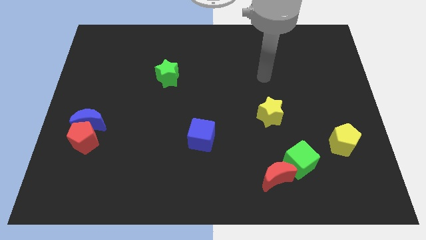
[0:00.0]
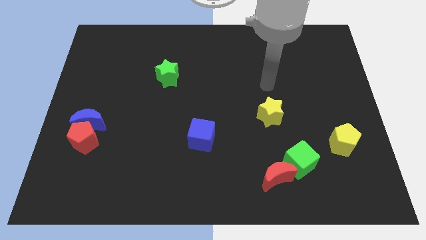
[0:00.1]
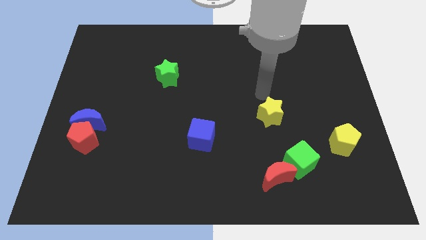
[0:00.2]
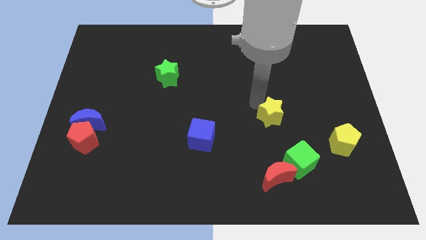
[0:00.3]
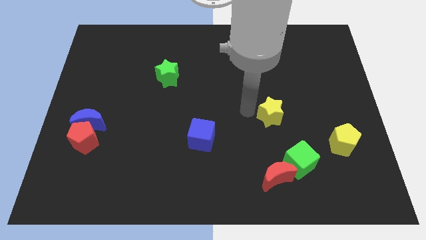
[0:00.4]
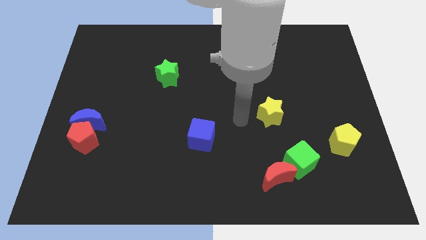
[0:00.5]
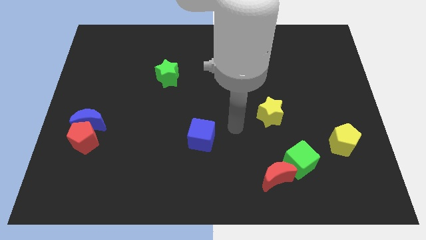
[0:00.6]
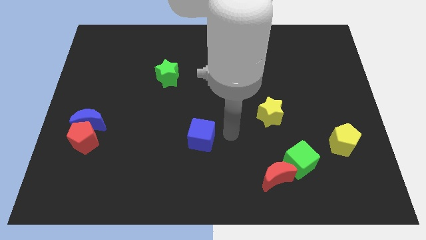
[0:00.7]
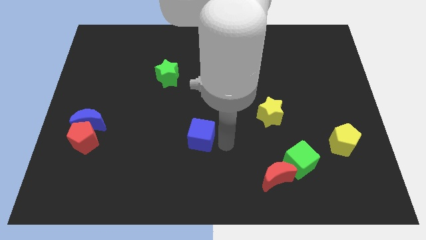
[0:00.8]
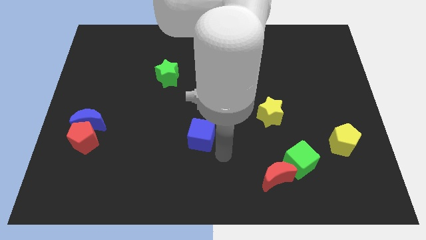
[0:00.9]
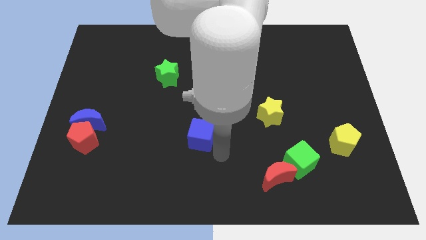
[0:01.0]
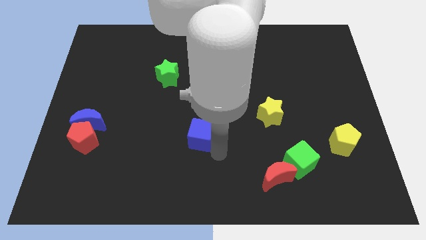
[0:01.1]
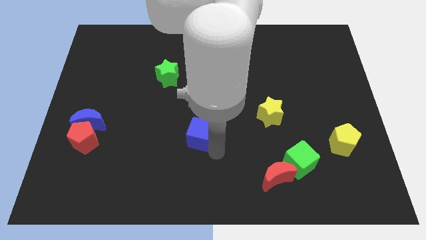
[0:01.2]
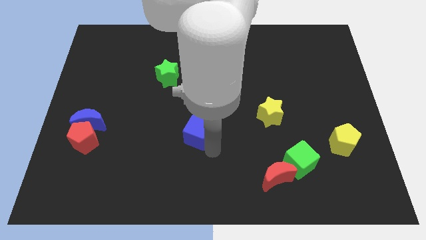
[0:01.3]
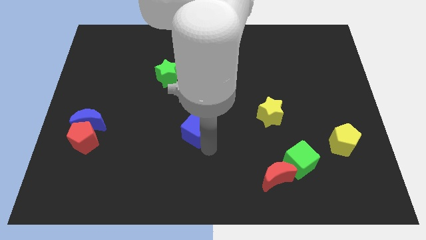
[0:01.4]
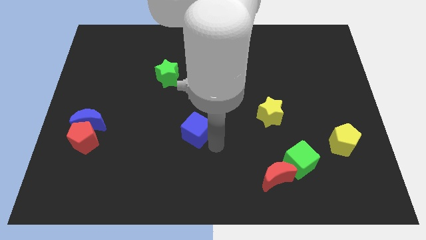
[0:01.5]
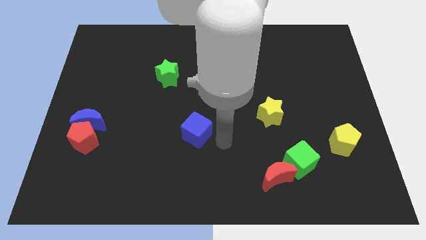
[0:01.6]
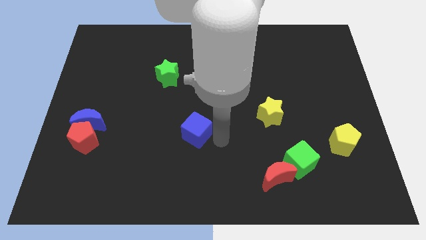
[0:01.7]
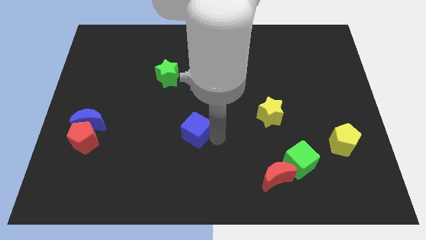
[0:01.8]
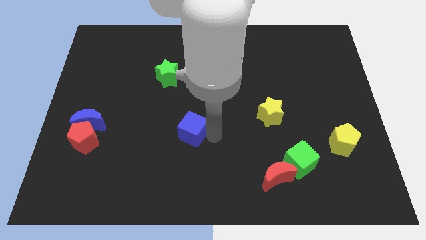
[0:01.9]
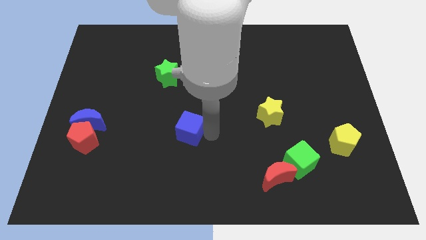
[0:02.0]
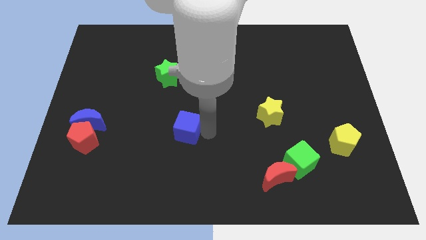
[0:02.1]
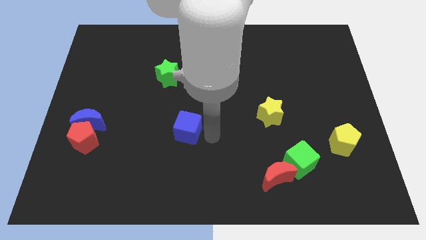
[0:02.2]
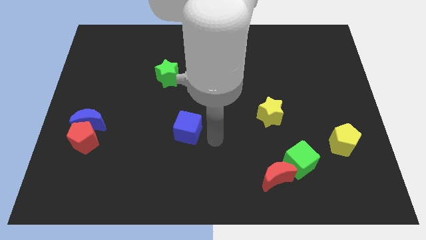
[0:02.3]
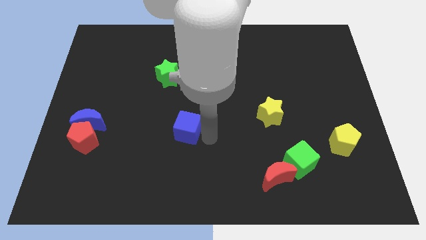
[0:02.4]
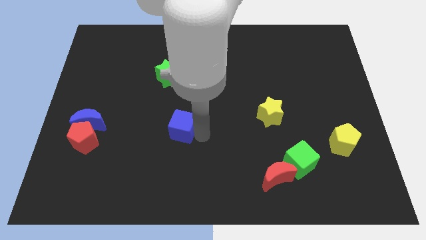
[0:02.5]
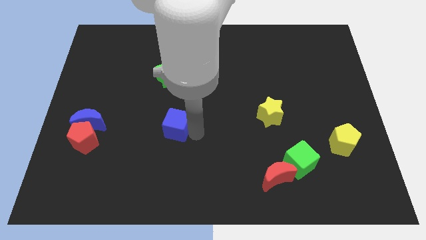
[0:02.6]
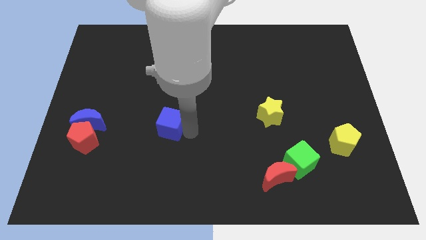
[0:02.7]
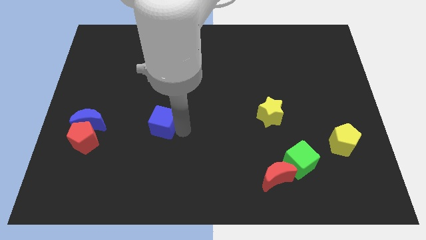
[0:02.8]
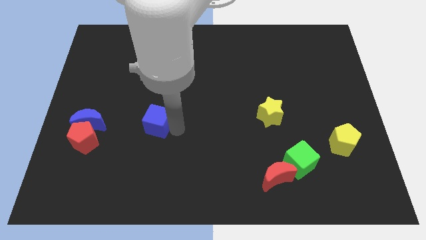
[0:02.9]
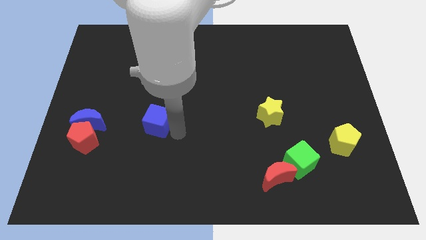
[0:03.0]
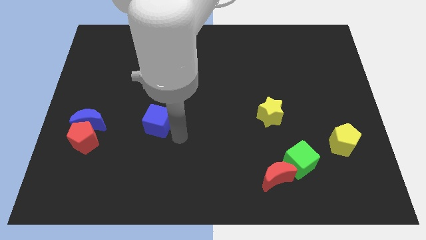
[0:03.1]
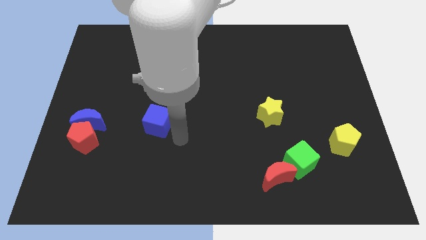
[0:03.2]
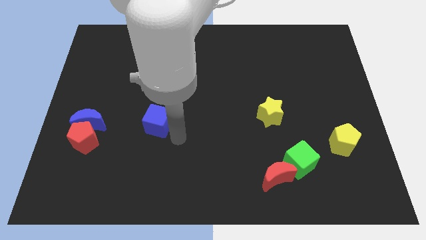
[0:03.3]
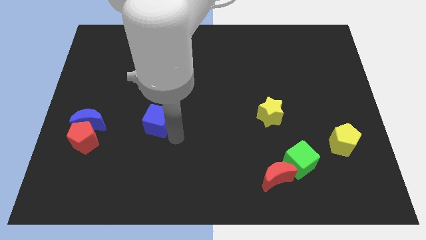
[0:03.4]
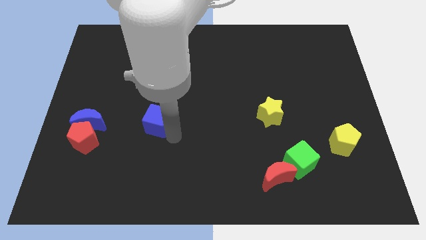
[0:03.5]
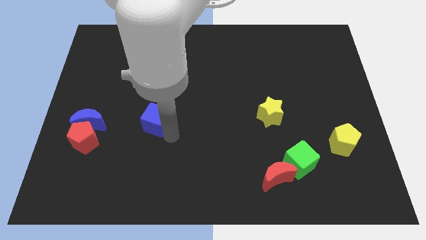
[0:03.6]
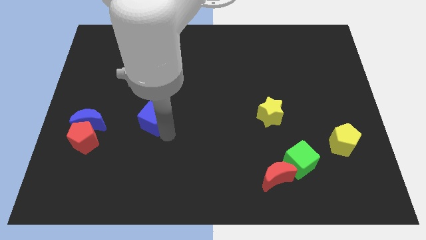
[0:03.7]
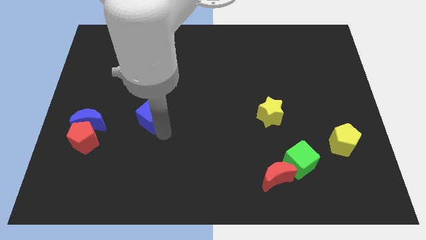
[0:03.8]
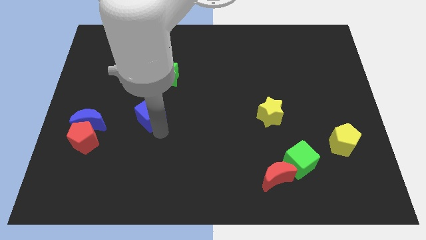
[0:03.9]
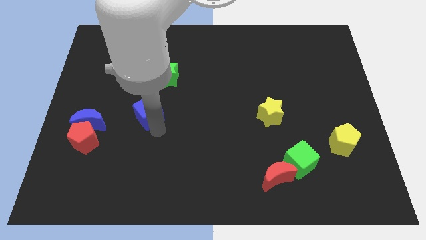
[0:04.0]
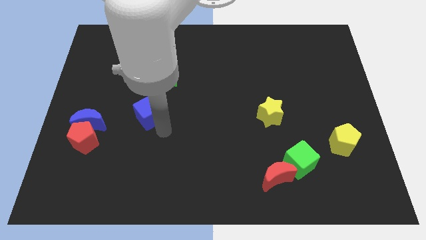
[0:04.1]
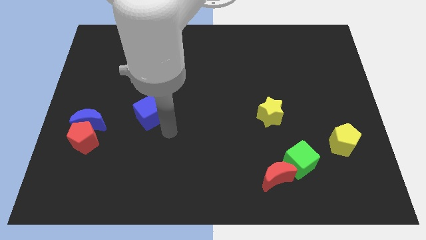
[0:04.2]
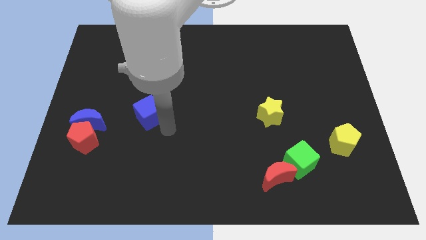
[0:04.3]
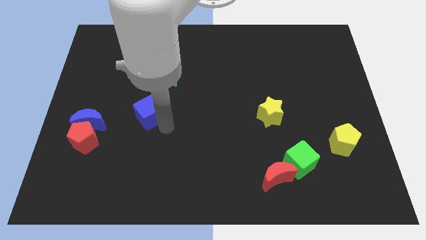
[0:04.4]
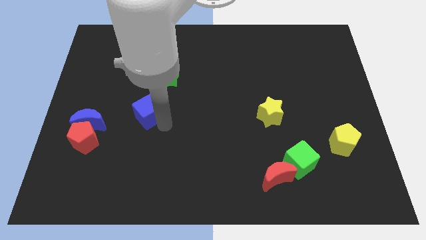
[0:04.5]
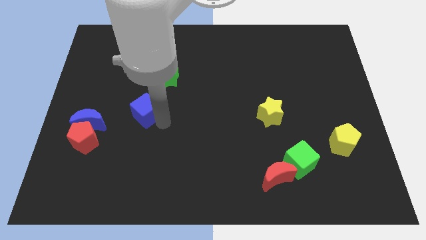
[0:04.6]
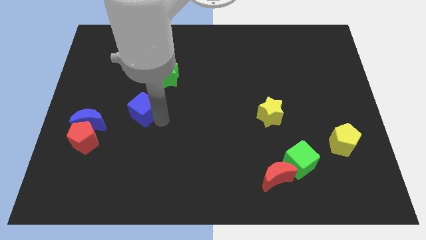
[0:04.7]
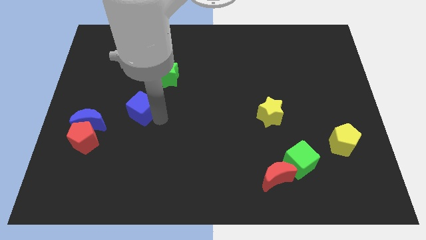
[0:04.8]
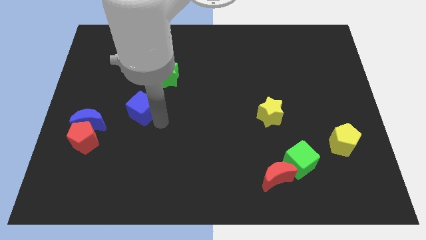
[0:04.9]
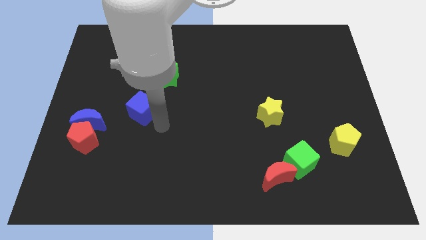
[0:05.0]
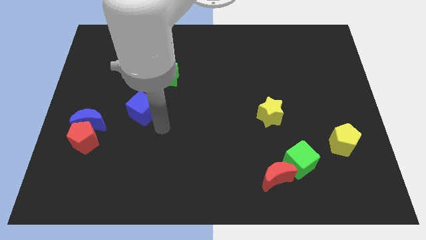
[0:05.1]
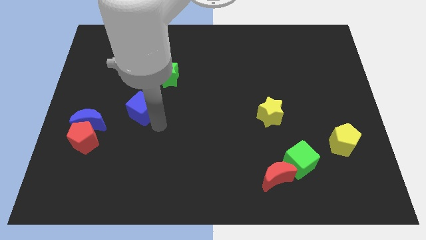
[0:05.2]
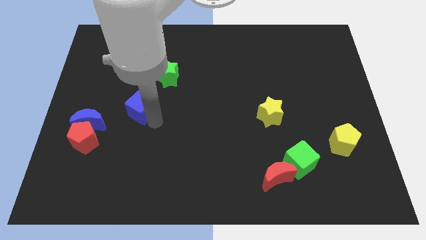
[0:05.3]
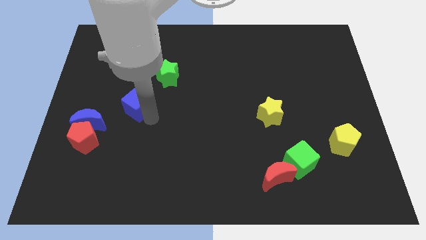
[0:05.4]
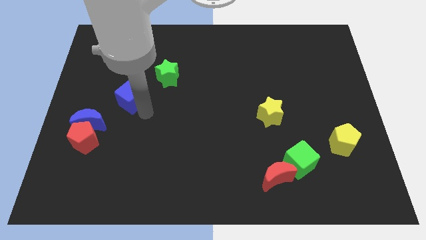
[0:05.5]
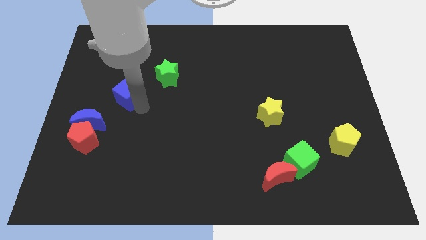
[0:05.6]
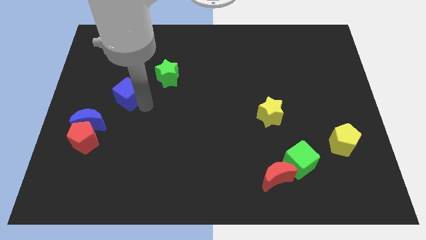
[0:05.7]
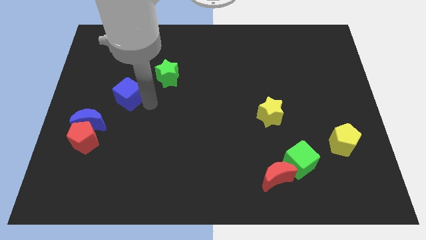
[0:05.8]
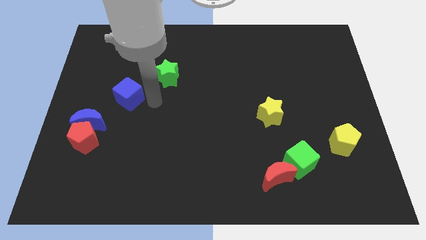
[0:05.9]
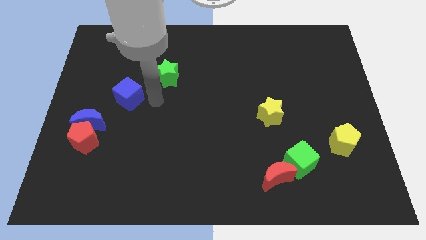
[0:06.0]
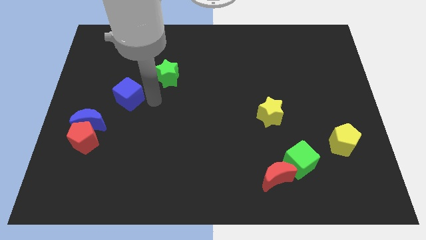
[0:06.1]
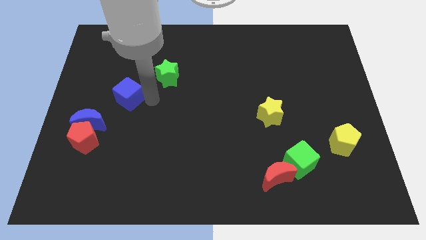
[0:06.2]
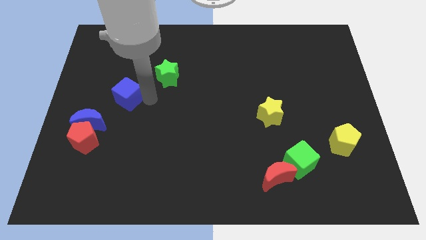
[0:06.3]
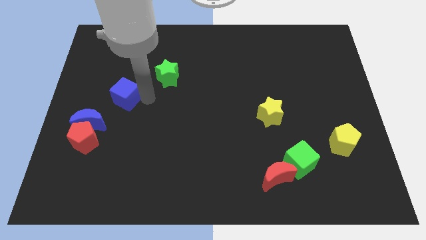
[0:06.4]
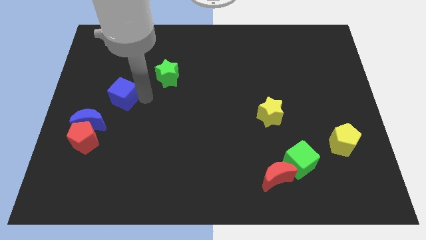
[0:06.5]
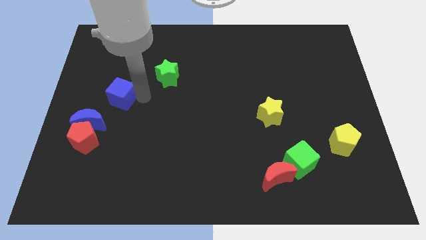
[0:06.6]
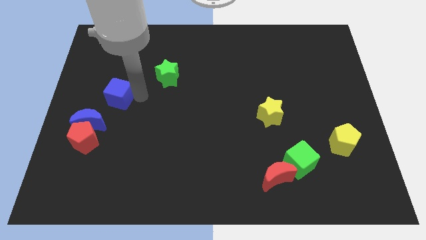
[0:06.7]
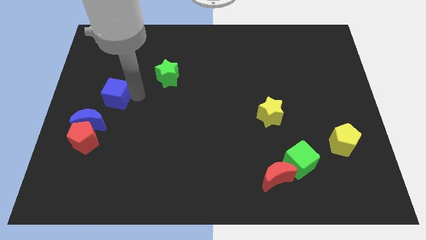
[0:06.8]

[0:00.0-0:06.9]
move the blue cube to the top of the blue moon

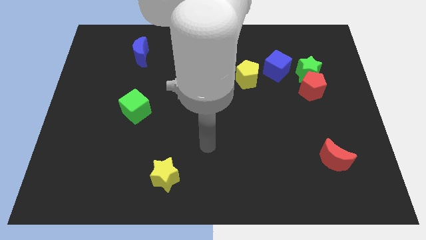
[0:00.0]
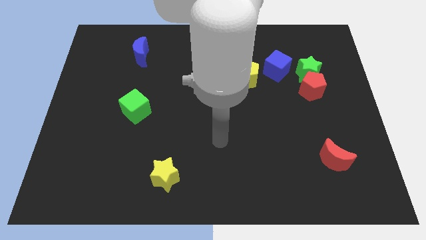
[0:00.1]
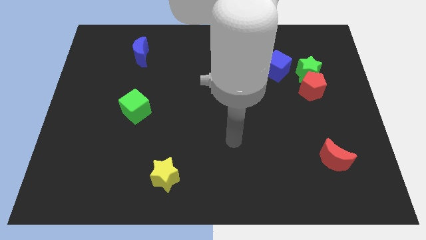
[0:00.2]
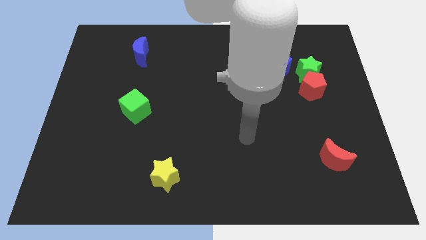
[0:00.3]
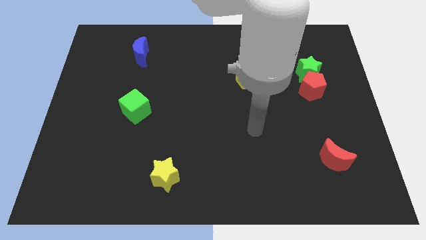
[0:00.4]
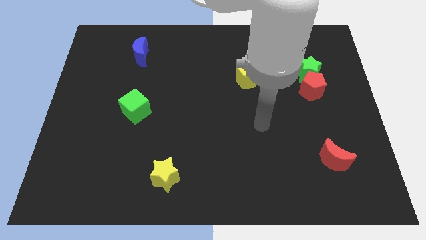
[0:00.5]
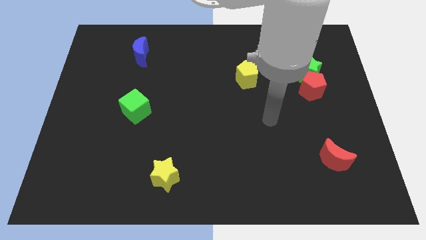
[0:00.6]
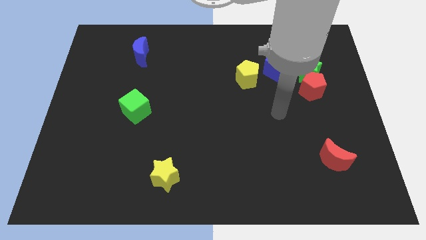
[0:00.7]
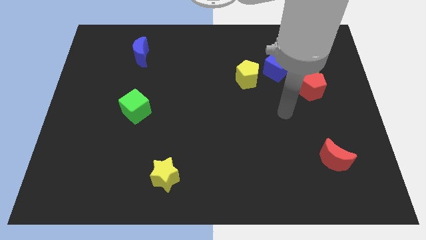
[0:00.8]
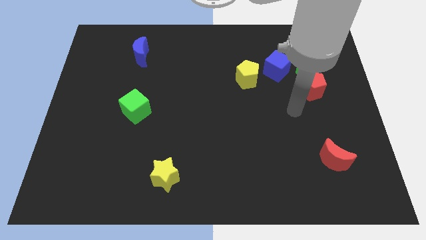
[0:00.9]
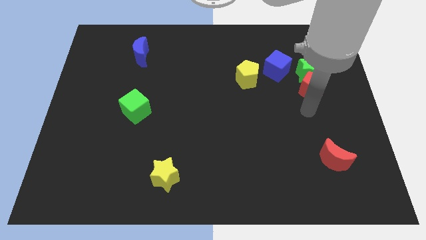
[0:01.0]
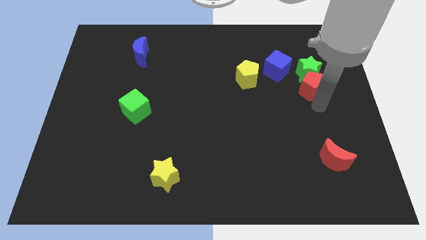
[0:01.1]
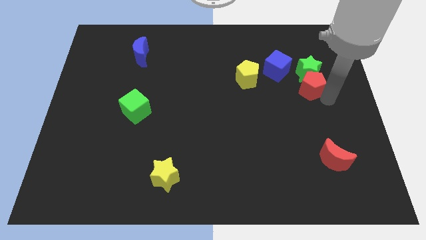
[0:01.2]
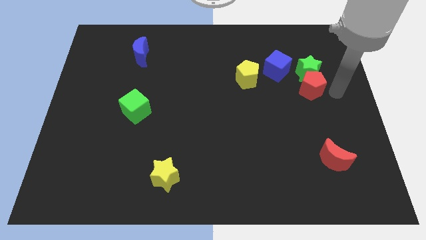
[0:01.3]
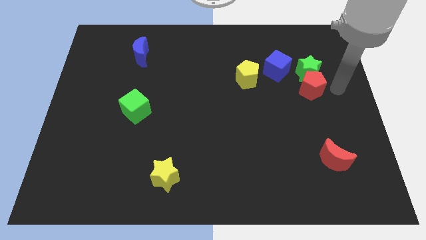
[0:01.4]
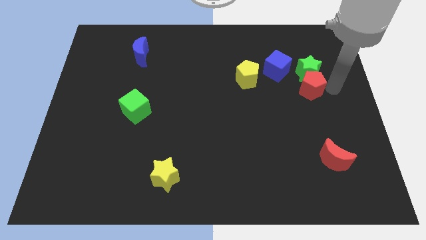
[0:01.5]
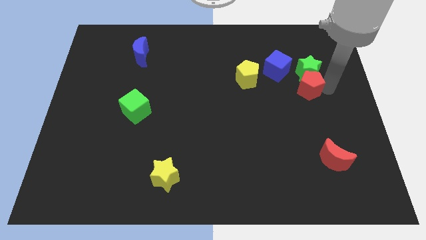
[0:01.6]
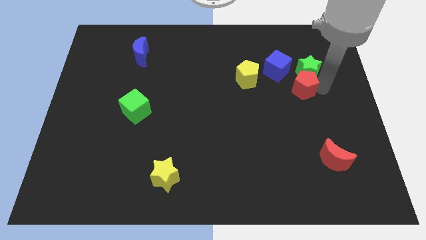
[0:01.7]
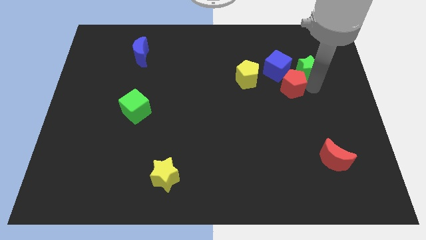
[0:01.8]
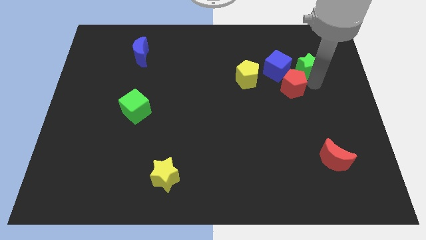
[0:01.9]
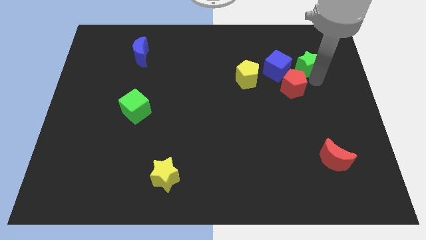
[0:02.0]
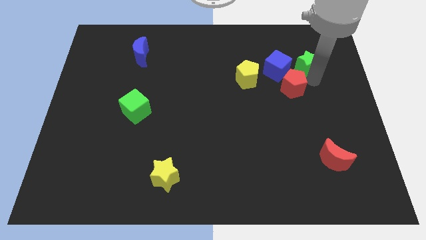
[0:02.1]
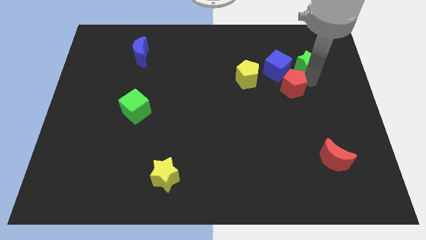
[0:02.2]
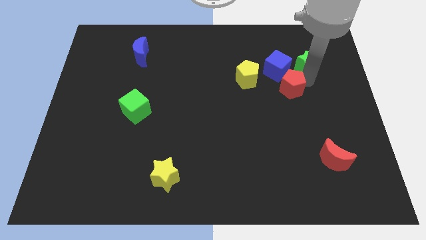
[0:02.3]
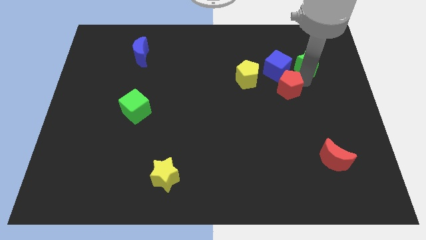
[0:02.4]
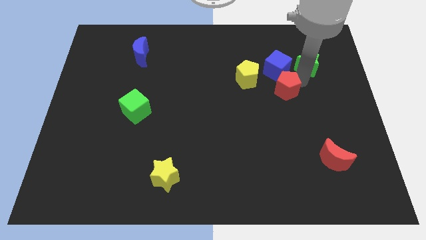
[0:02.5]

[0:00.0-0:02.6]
move the red pentagon diagonally down and to the right of the yellow pentagon
